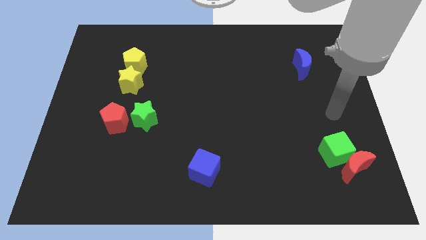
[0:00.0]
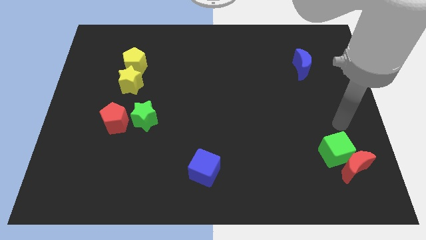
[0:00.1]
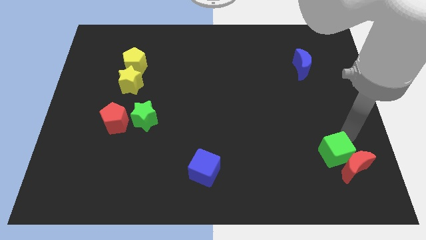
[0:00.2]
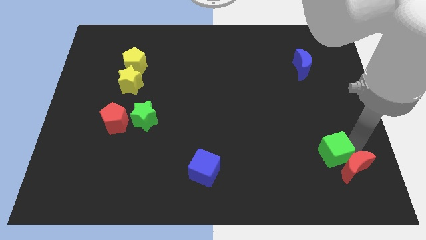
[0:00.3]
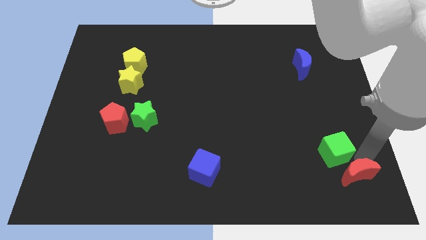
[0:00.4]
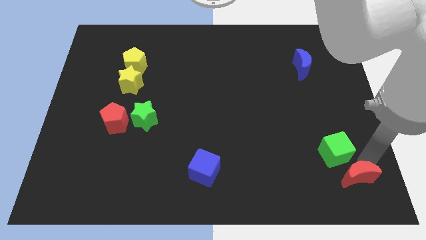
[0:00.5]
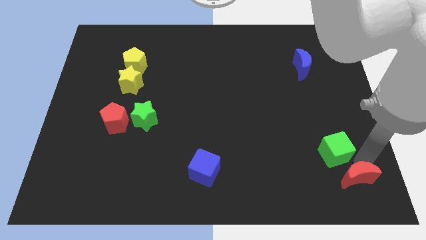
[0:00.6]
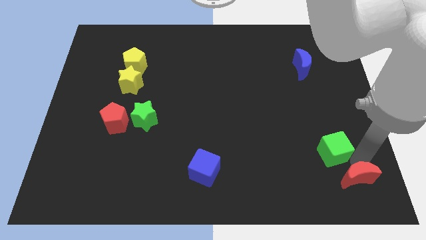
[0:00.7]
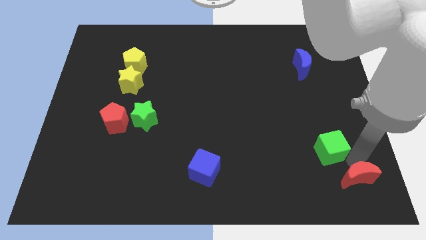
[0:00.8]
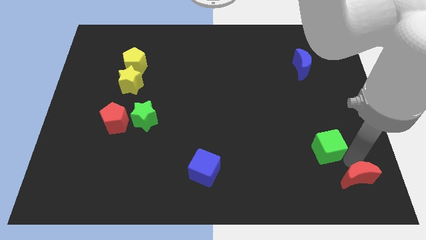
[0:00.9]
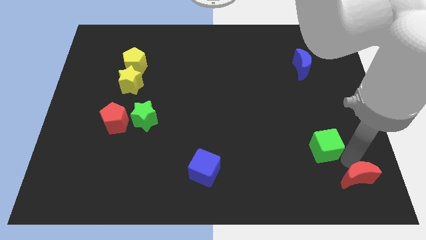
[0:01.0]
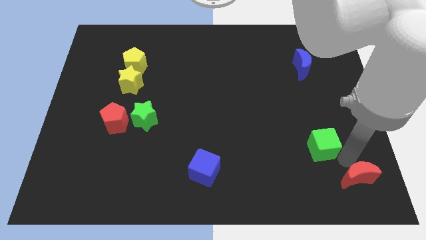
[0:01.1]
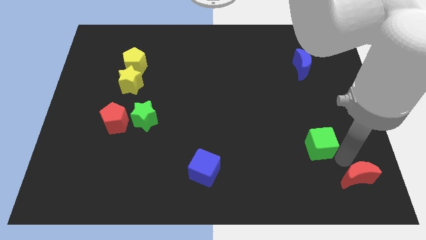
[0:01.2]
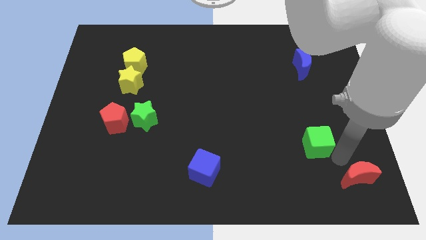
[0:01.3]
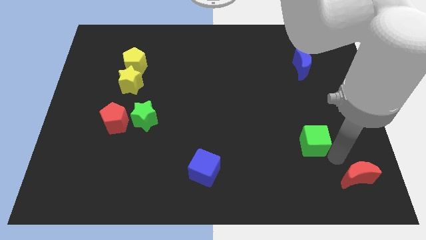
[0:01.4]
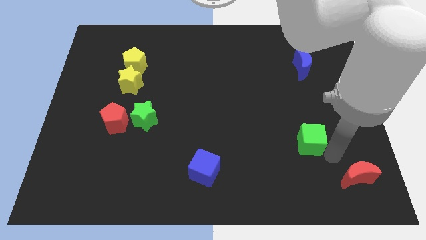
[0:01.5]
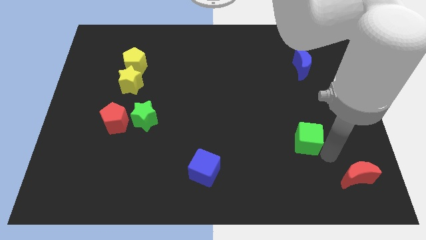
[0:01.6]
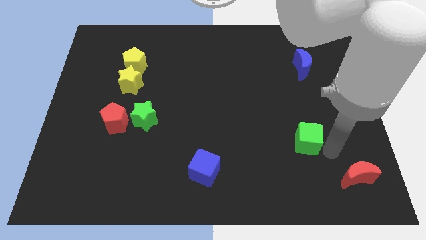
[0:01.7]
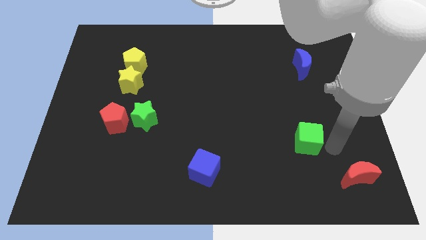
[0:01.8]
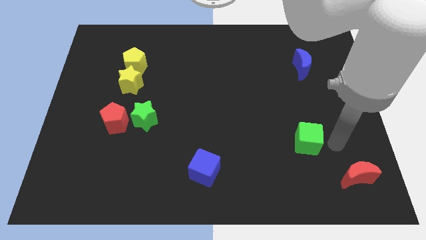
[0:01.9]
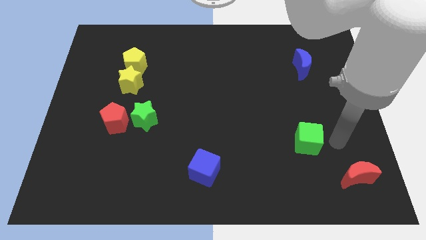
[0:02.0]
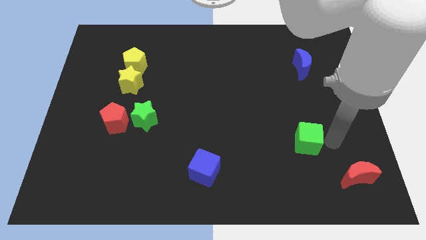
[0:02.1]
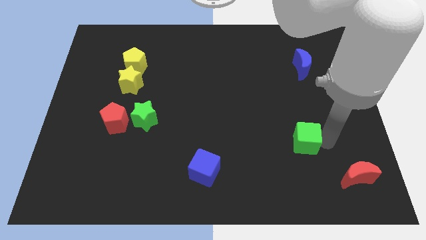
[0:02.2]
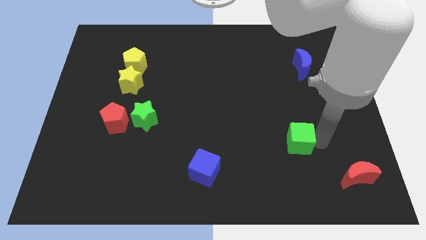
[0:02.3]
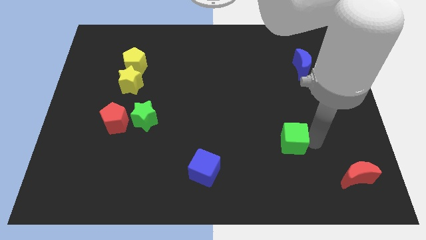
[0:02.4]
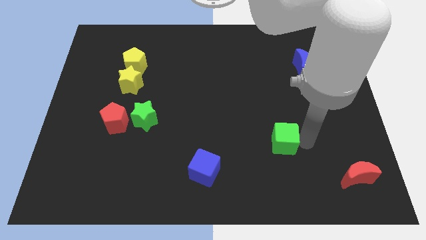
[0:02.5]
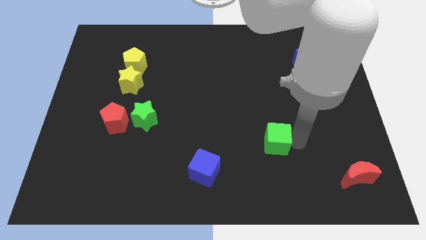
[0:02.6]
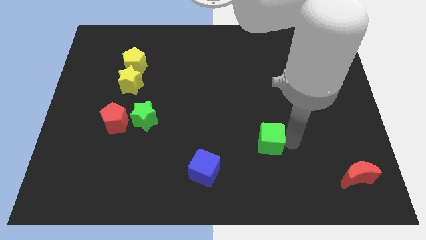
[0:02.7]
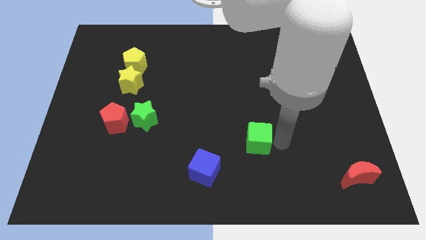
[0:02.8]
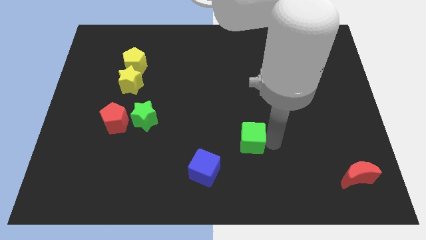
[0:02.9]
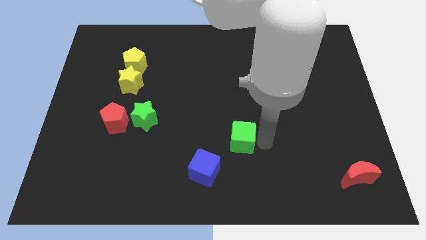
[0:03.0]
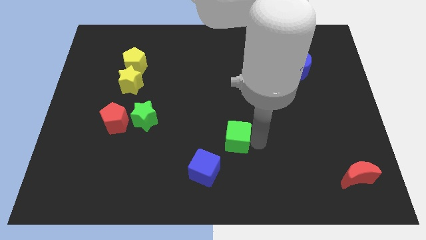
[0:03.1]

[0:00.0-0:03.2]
move the green cube to the left

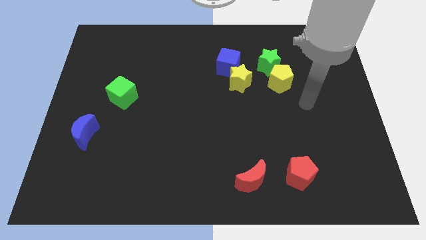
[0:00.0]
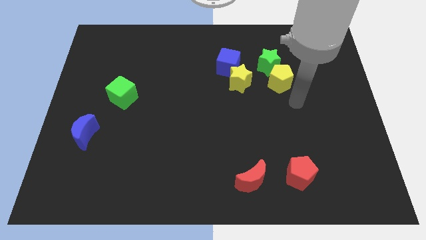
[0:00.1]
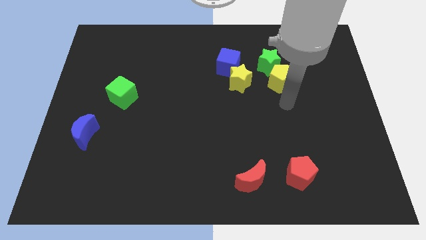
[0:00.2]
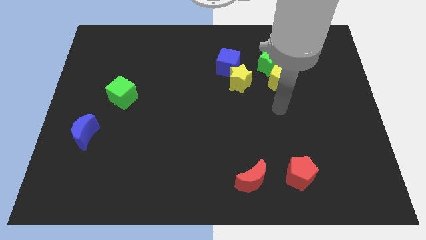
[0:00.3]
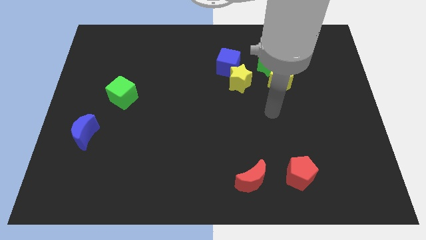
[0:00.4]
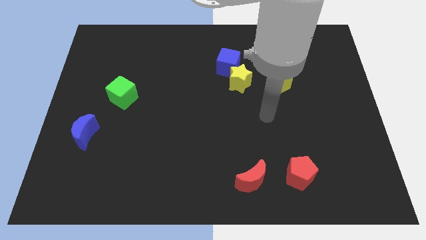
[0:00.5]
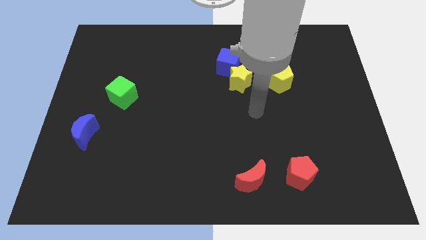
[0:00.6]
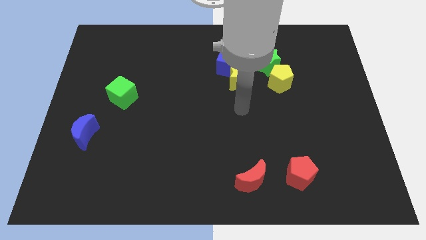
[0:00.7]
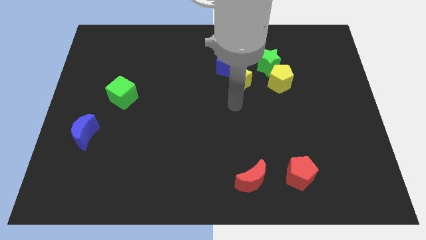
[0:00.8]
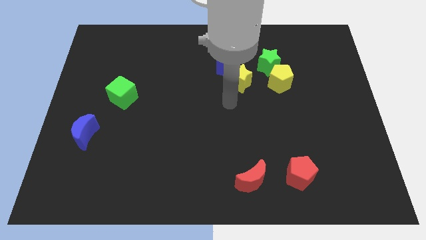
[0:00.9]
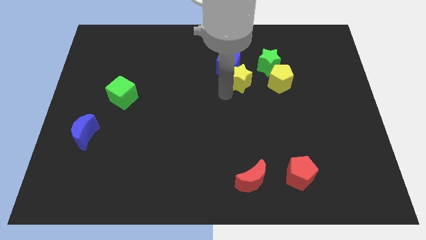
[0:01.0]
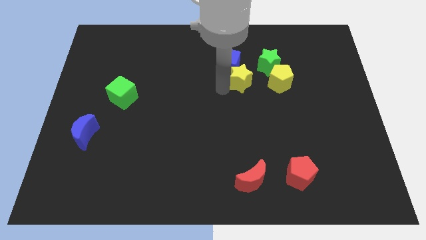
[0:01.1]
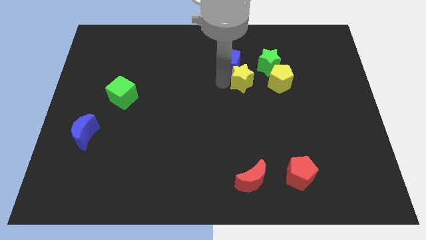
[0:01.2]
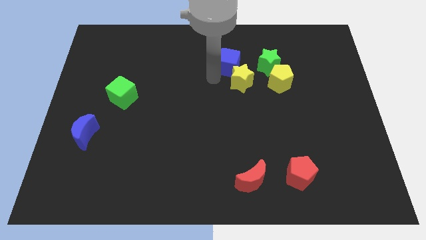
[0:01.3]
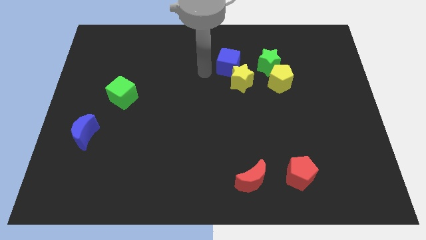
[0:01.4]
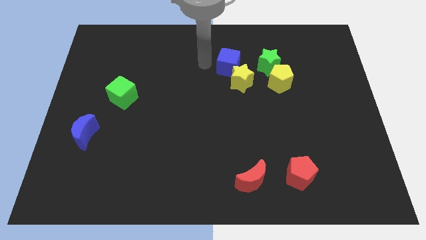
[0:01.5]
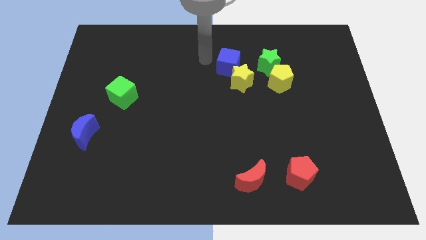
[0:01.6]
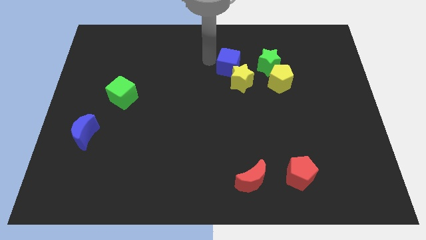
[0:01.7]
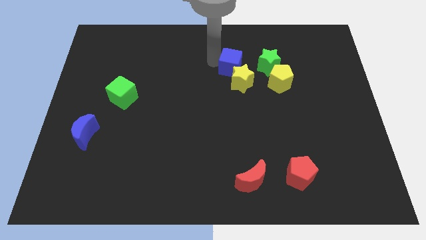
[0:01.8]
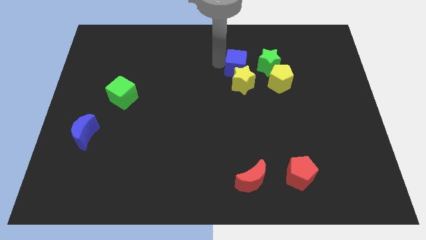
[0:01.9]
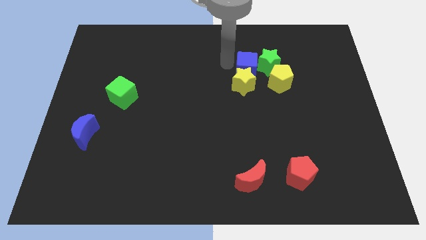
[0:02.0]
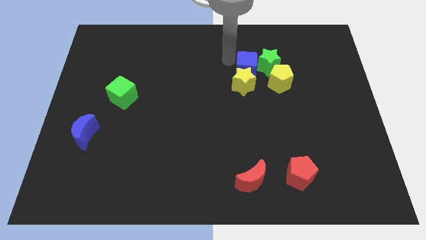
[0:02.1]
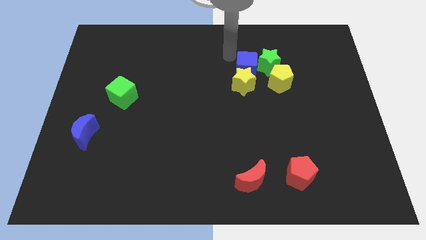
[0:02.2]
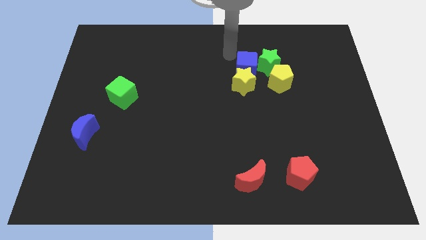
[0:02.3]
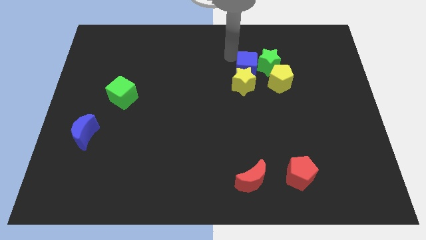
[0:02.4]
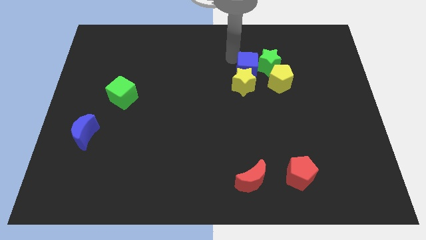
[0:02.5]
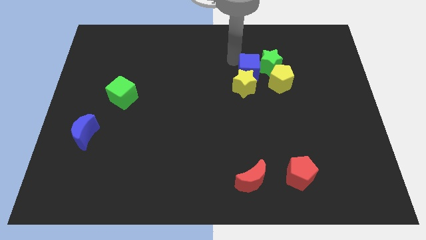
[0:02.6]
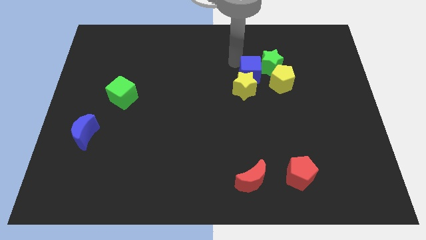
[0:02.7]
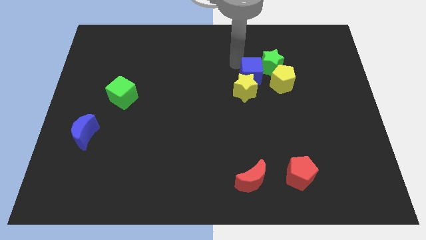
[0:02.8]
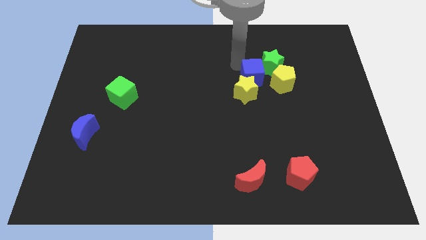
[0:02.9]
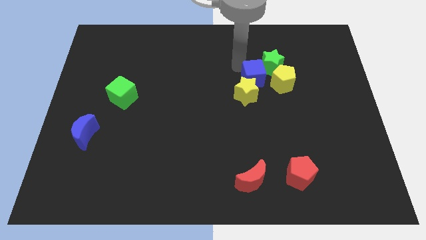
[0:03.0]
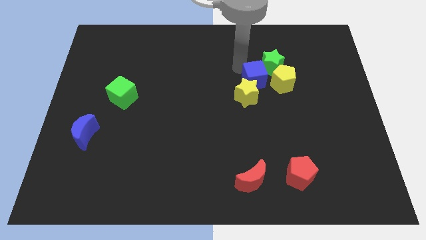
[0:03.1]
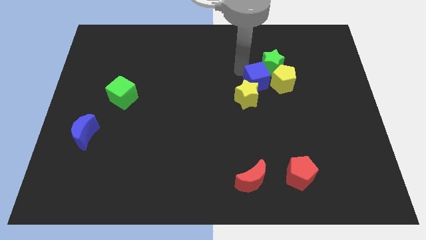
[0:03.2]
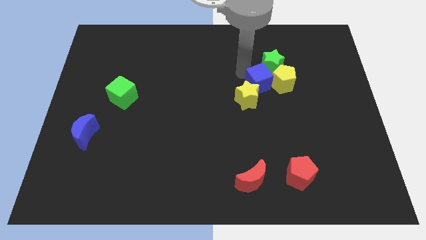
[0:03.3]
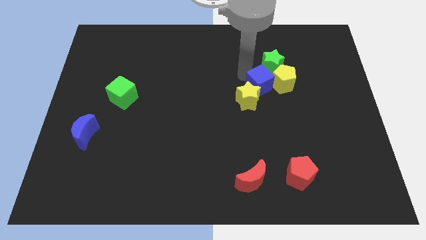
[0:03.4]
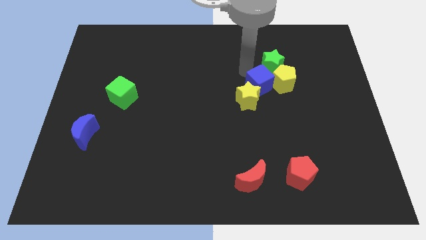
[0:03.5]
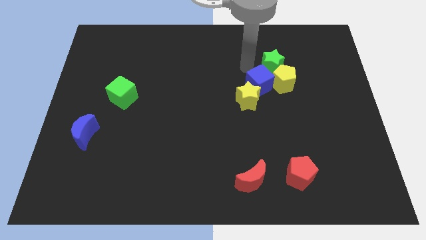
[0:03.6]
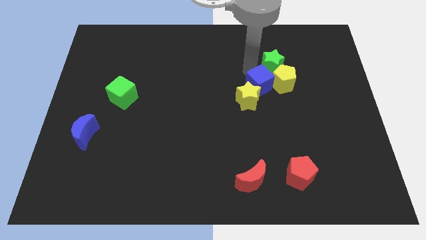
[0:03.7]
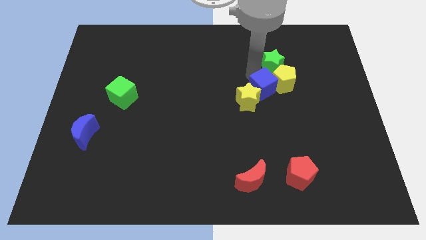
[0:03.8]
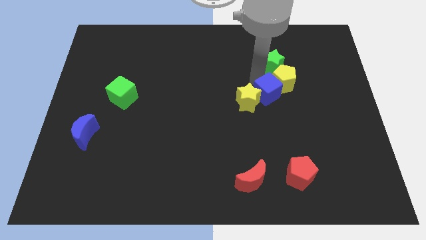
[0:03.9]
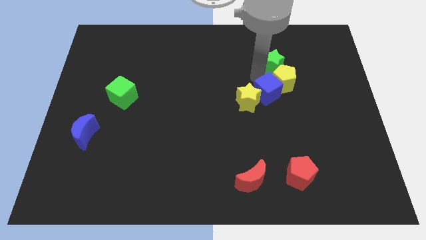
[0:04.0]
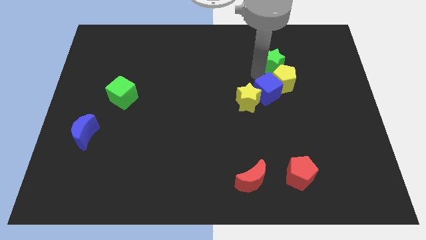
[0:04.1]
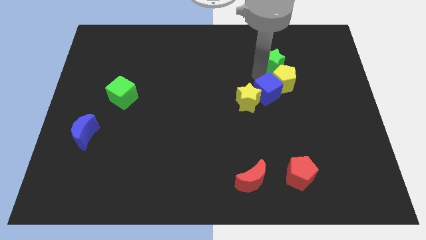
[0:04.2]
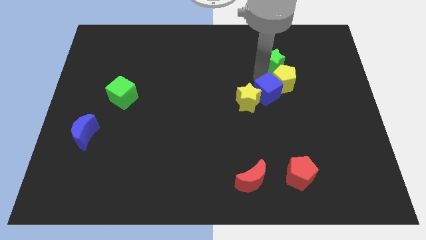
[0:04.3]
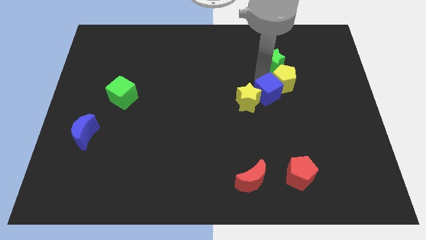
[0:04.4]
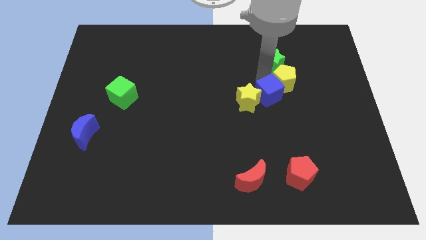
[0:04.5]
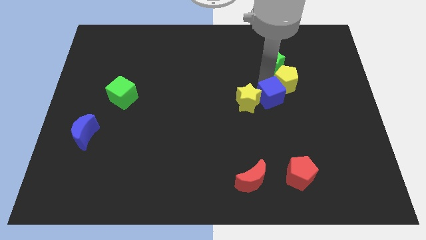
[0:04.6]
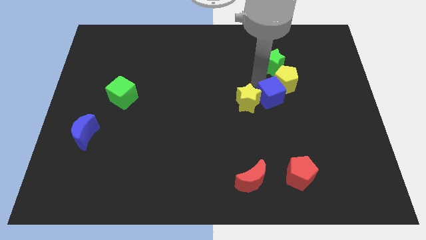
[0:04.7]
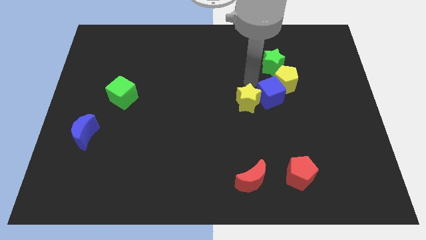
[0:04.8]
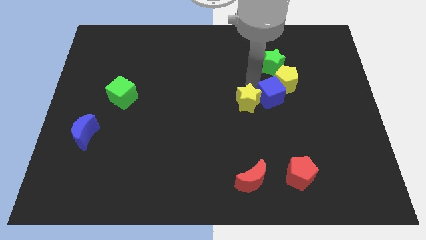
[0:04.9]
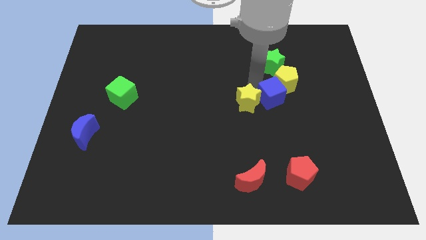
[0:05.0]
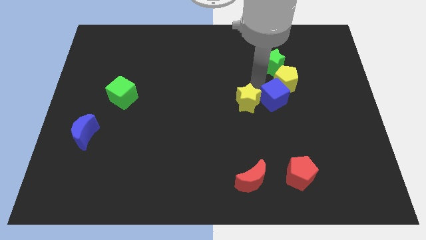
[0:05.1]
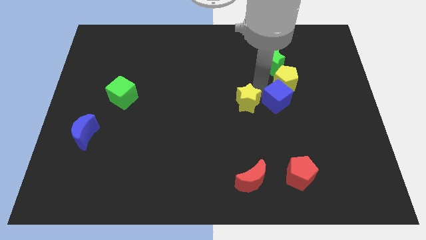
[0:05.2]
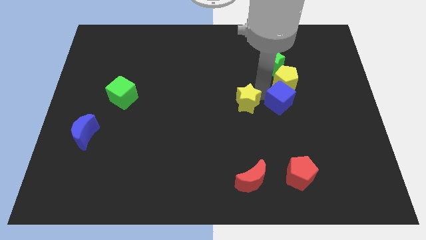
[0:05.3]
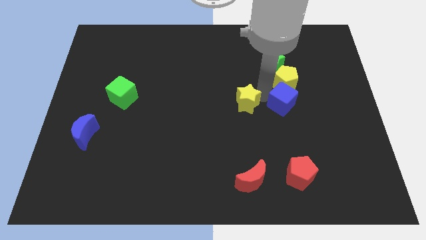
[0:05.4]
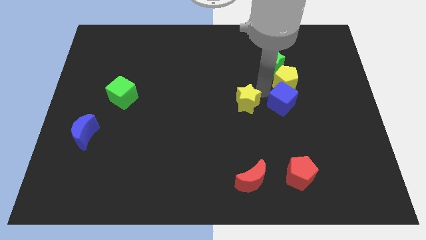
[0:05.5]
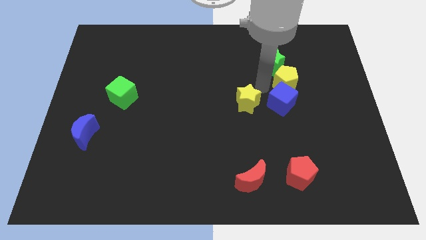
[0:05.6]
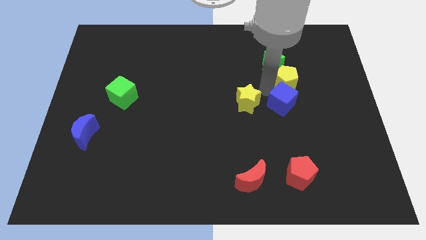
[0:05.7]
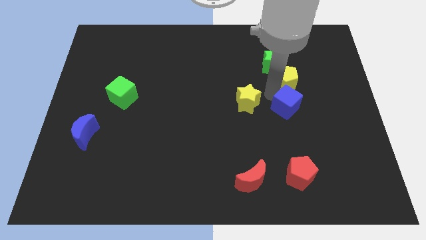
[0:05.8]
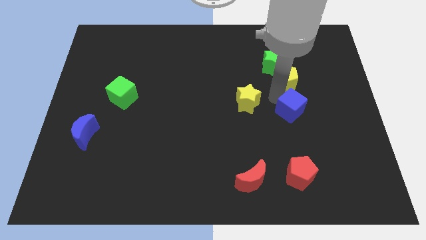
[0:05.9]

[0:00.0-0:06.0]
move the blue cube downwards and right
